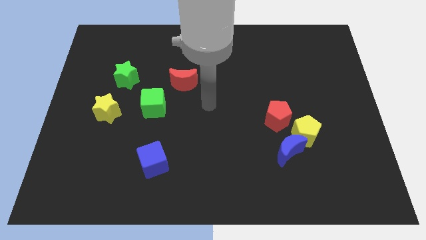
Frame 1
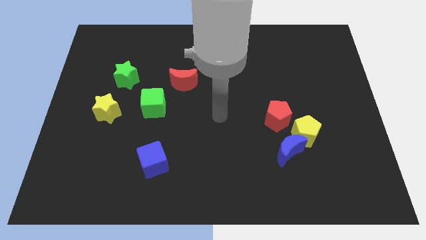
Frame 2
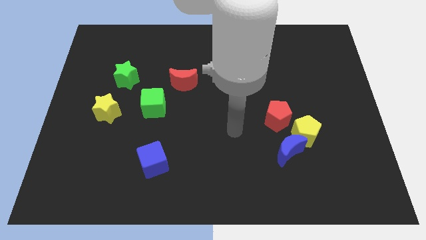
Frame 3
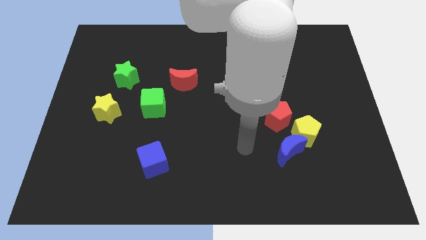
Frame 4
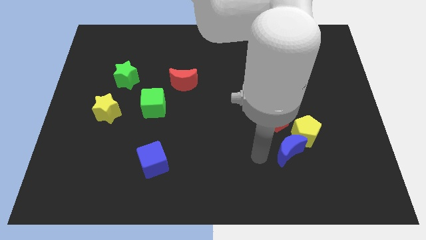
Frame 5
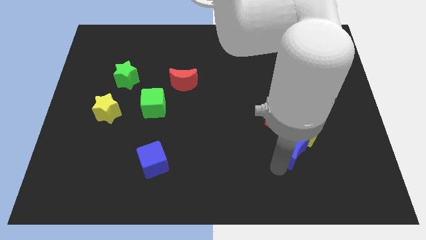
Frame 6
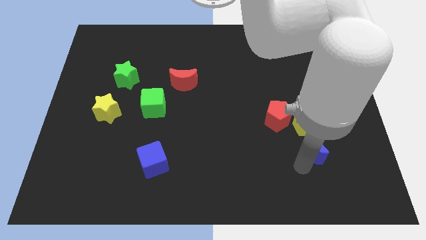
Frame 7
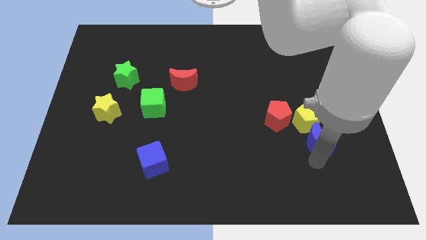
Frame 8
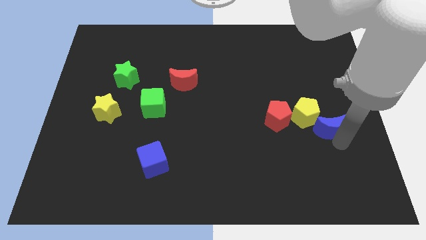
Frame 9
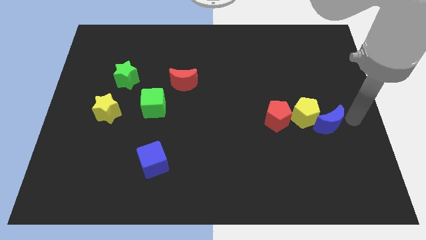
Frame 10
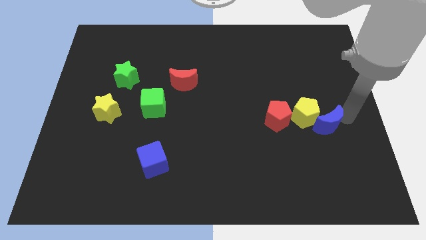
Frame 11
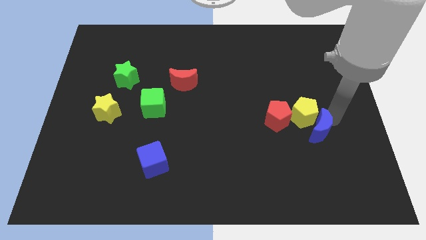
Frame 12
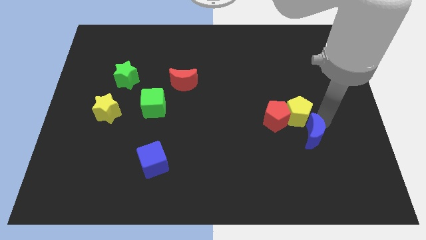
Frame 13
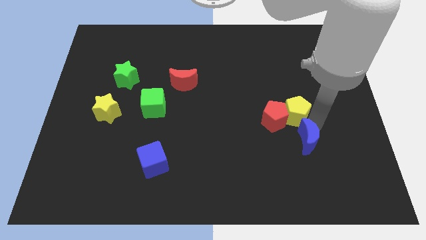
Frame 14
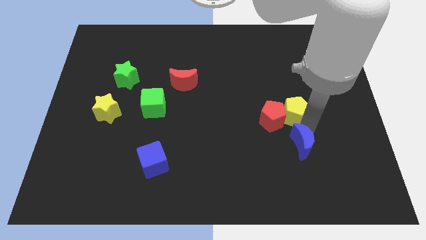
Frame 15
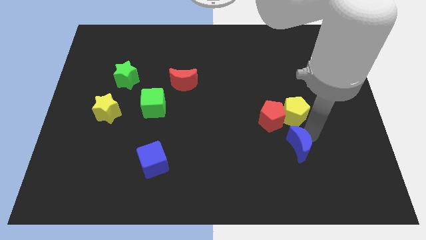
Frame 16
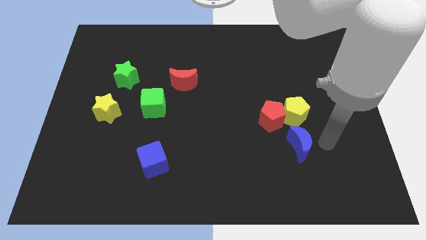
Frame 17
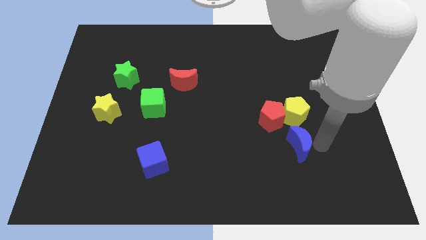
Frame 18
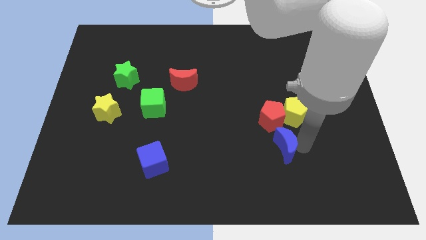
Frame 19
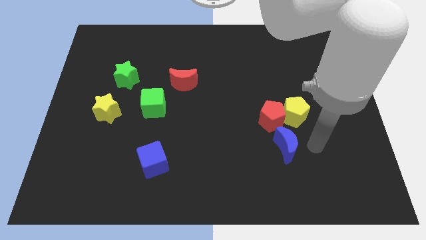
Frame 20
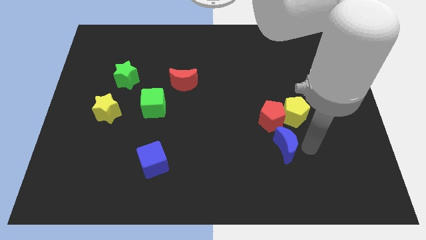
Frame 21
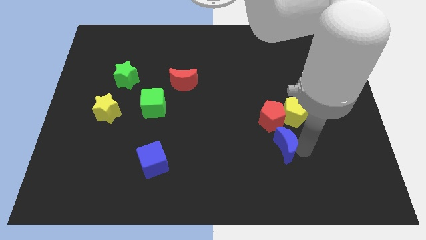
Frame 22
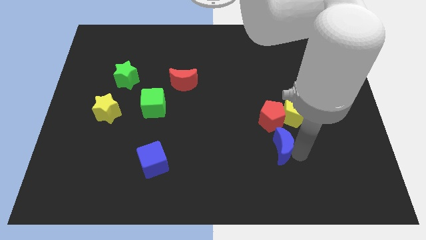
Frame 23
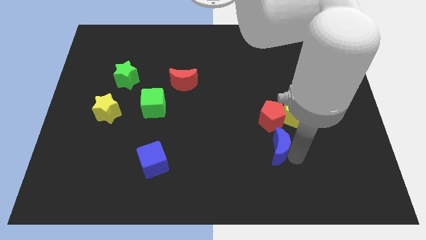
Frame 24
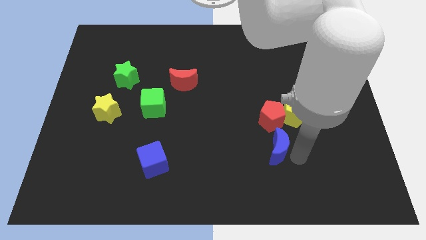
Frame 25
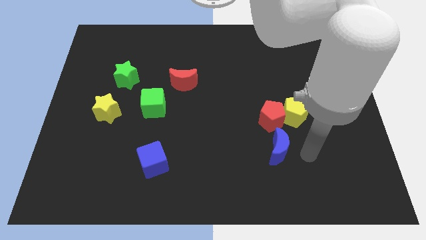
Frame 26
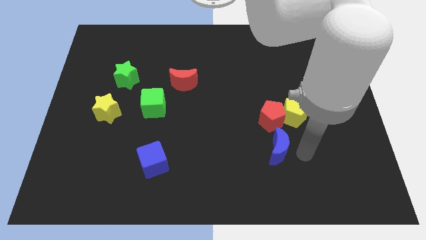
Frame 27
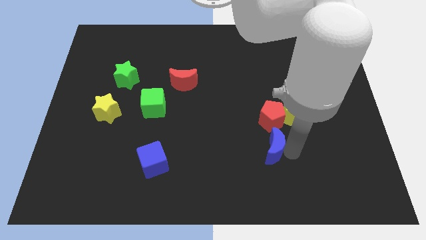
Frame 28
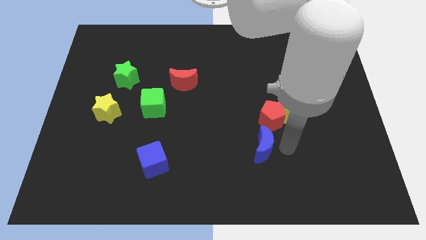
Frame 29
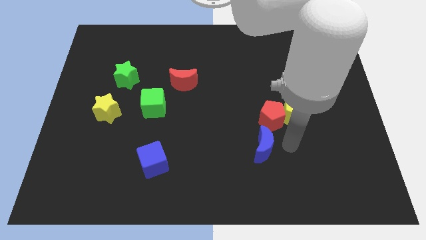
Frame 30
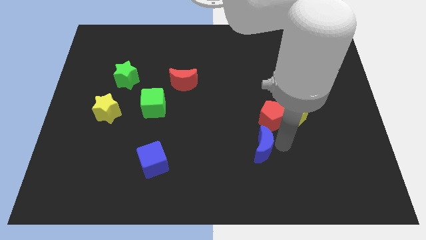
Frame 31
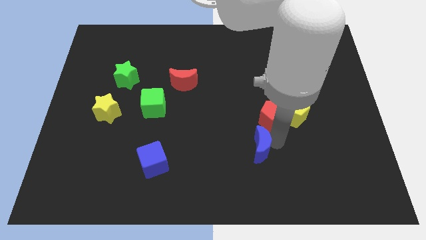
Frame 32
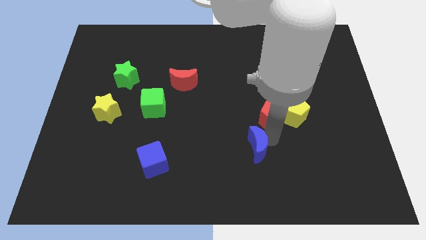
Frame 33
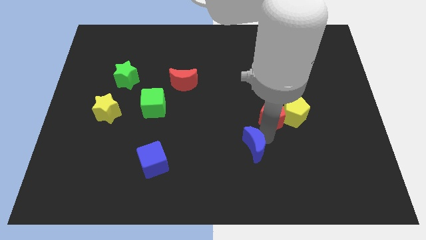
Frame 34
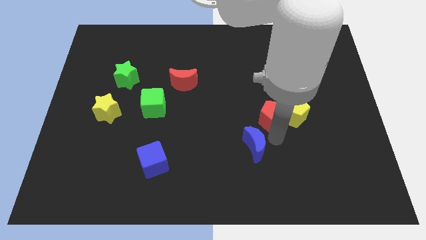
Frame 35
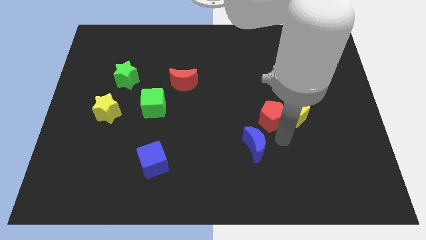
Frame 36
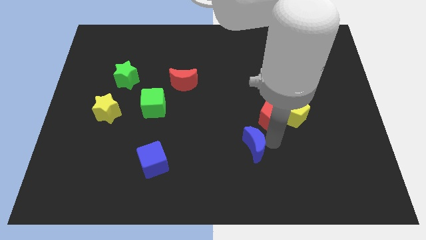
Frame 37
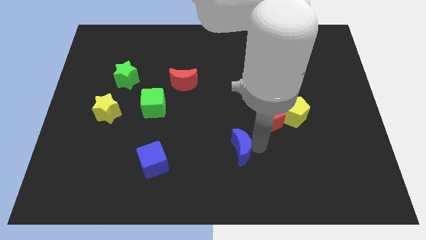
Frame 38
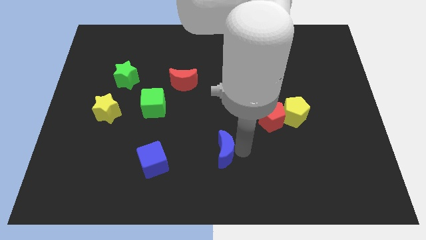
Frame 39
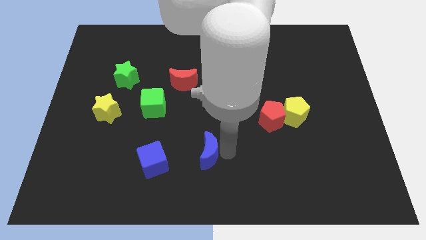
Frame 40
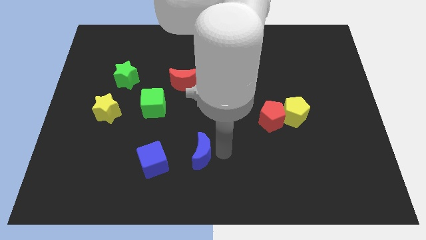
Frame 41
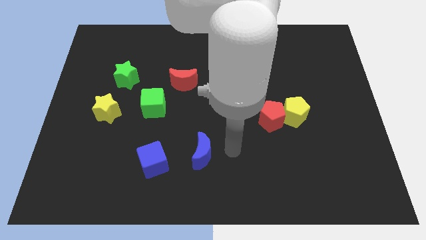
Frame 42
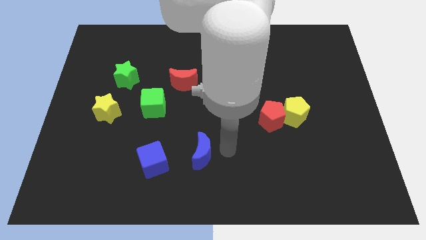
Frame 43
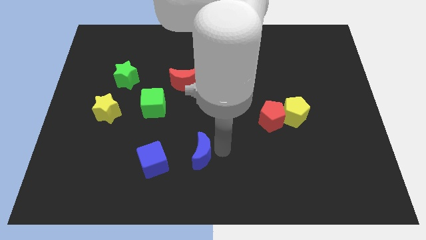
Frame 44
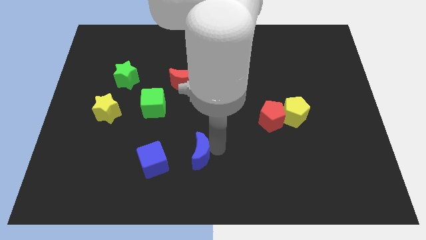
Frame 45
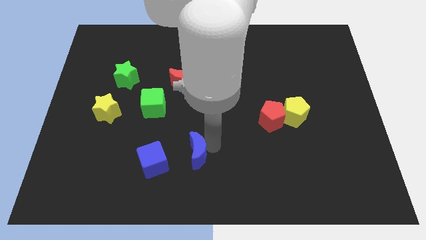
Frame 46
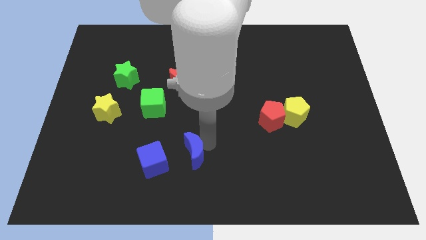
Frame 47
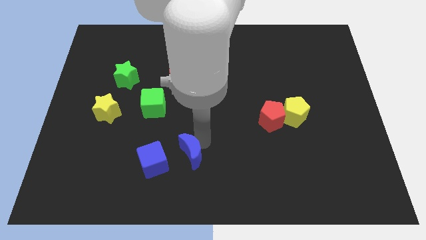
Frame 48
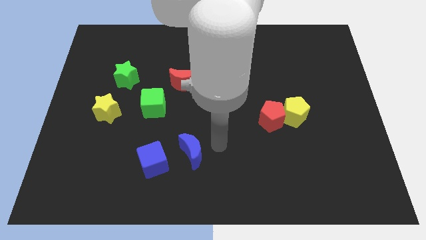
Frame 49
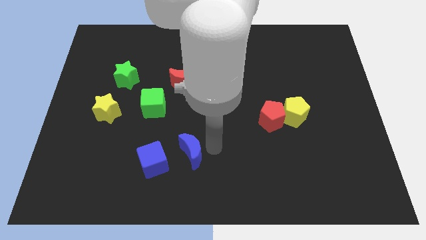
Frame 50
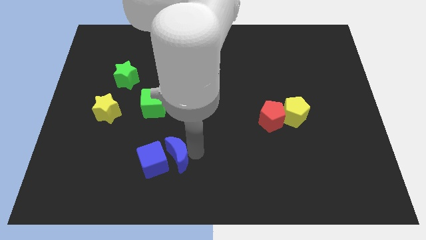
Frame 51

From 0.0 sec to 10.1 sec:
push the blue moon close to the blue cube

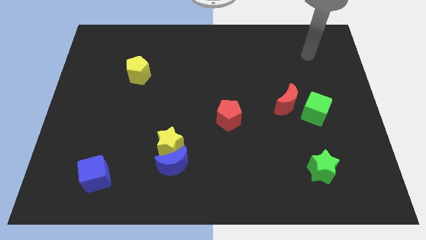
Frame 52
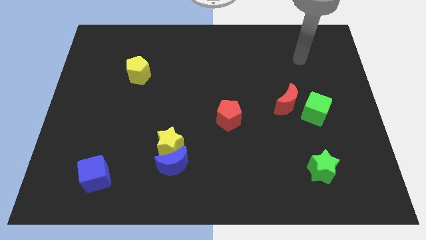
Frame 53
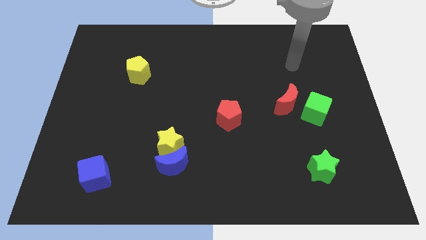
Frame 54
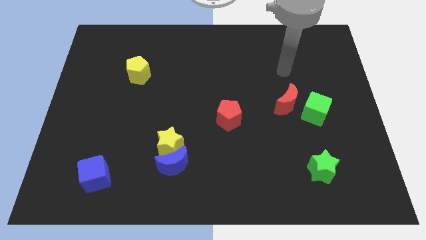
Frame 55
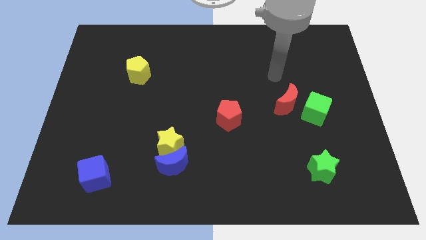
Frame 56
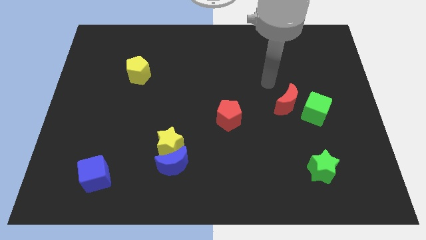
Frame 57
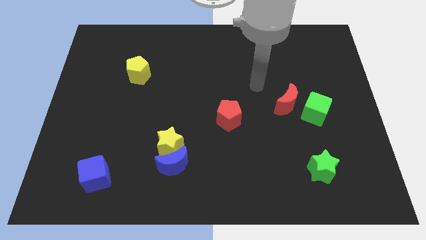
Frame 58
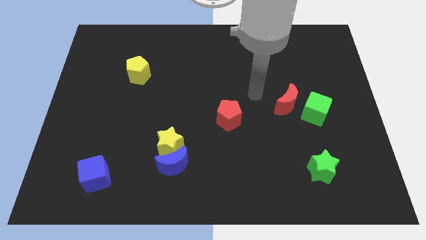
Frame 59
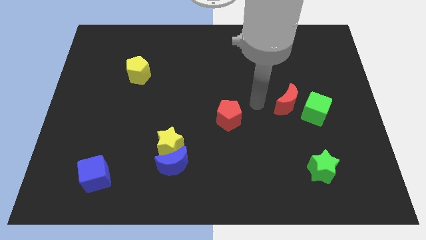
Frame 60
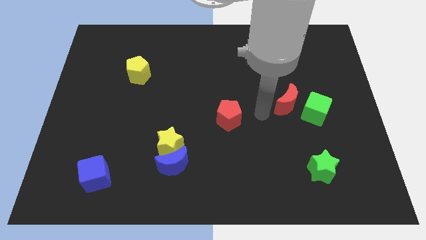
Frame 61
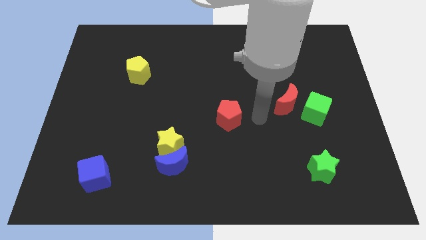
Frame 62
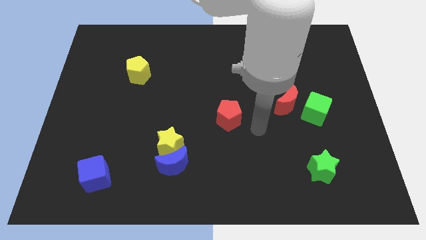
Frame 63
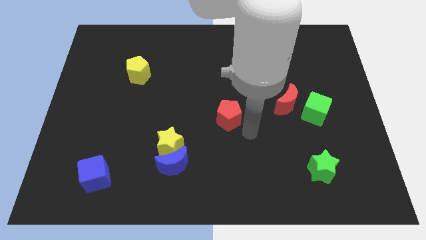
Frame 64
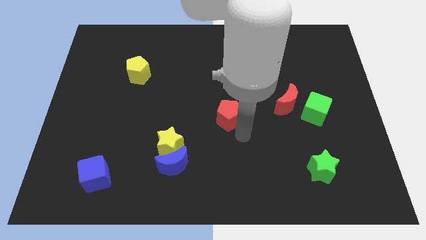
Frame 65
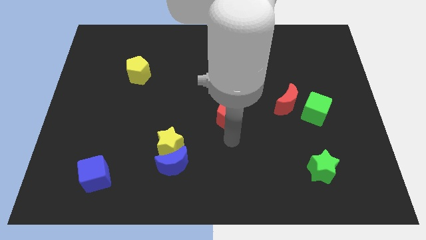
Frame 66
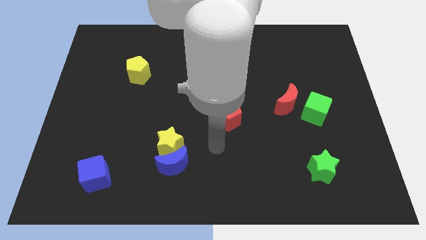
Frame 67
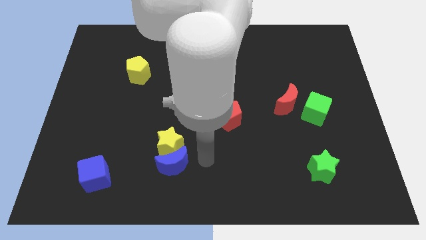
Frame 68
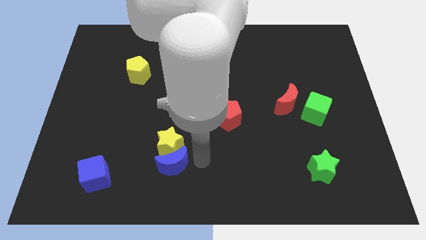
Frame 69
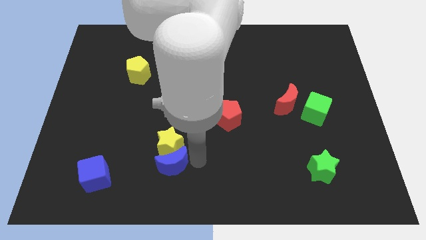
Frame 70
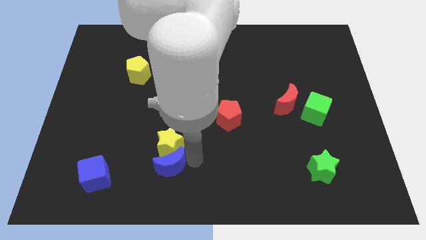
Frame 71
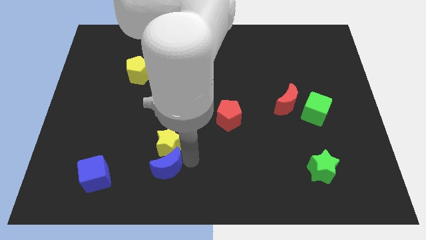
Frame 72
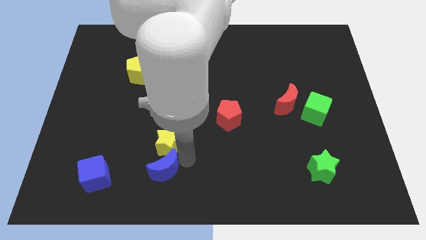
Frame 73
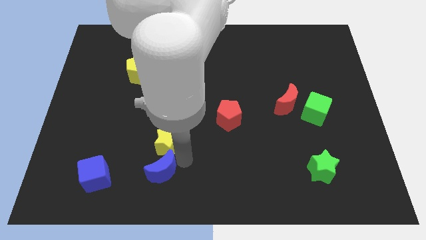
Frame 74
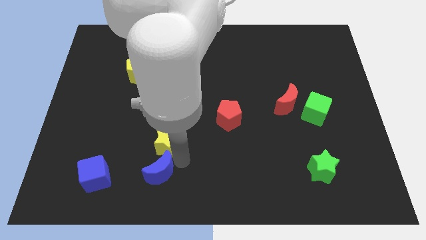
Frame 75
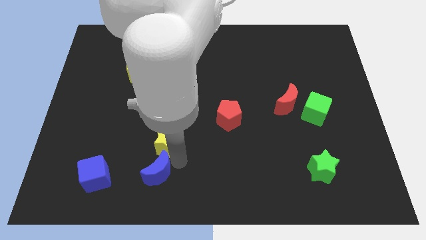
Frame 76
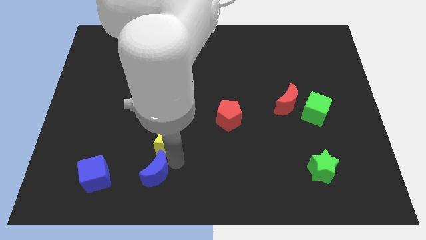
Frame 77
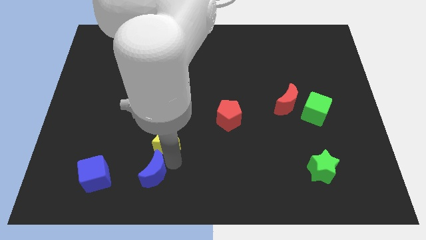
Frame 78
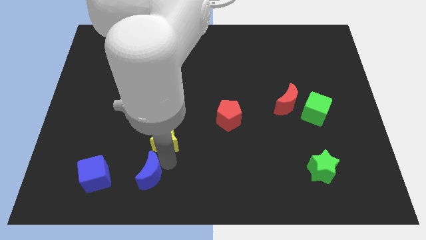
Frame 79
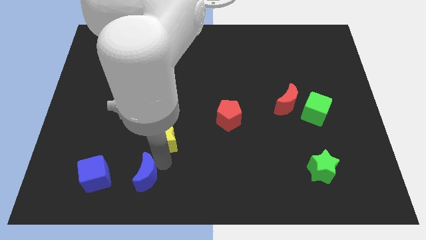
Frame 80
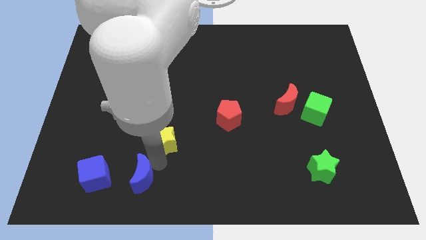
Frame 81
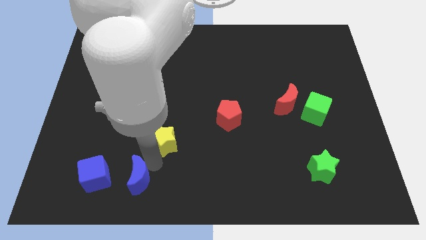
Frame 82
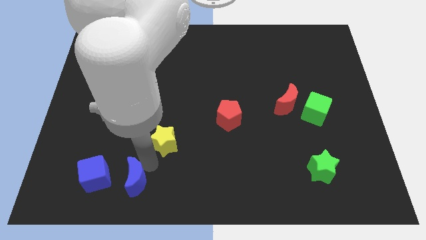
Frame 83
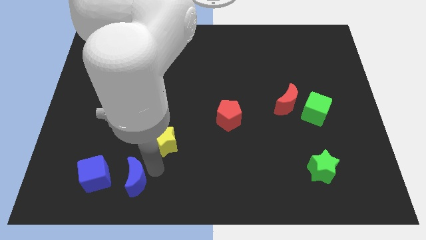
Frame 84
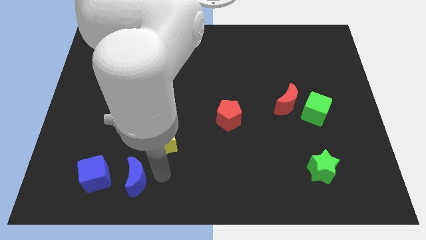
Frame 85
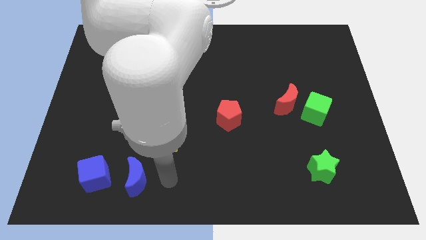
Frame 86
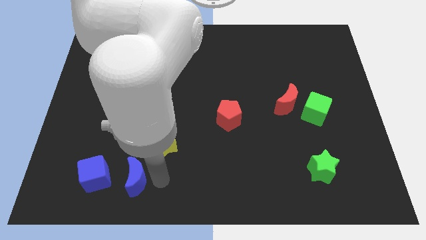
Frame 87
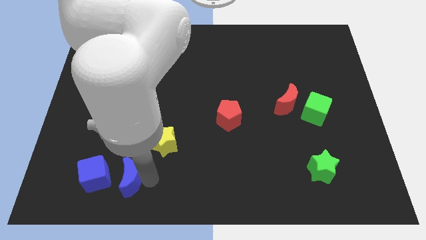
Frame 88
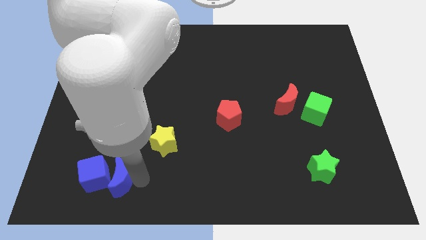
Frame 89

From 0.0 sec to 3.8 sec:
move the blue moon close to the blue cube
